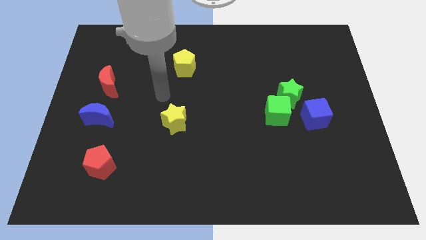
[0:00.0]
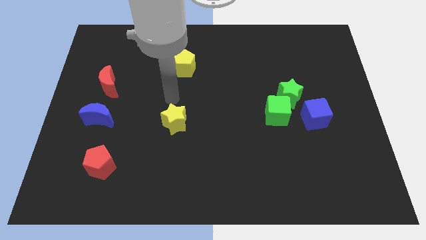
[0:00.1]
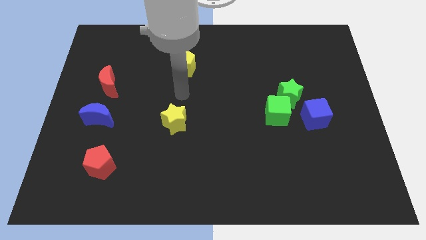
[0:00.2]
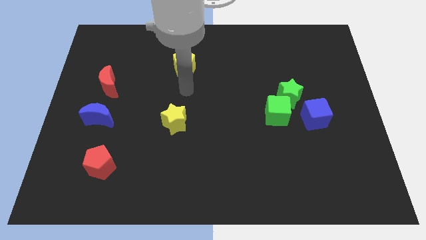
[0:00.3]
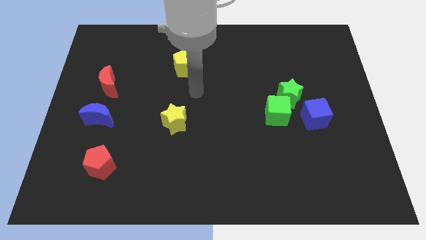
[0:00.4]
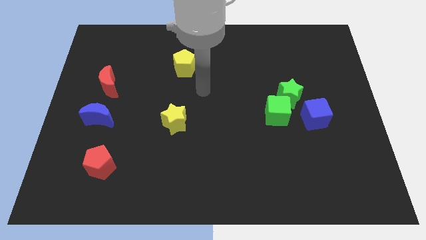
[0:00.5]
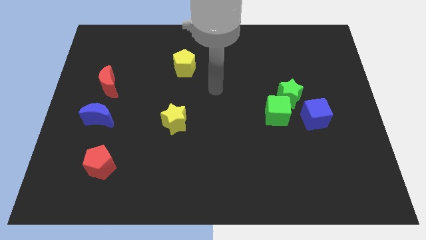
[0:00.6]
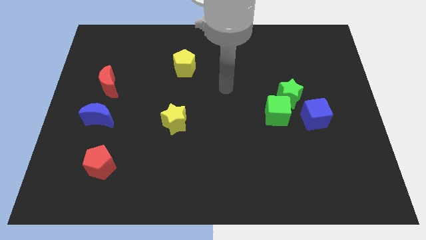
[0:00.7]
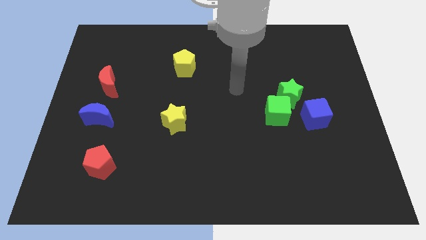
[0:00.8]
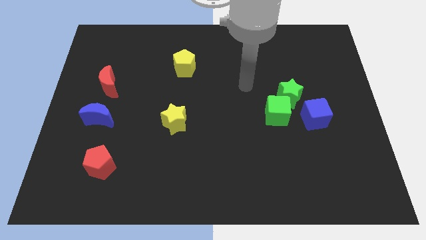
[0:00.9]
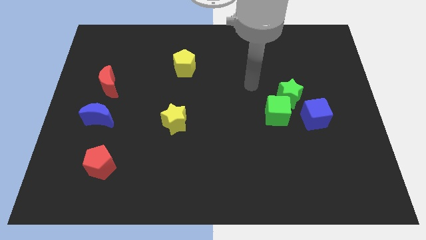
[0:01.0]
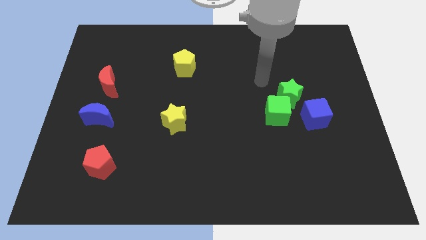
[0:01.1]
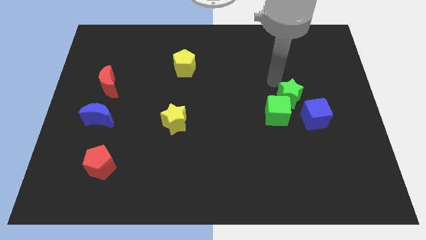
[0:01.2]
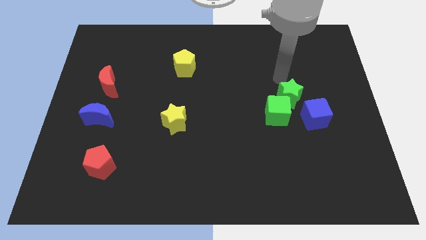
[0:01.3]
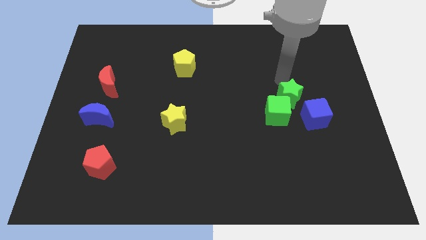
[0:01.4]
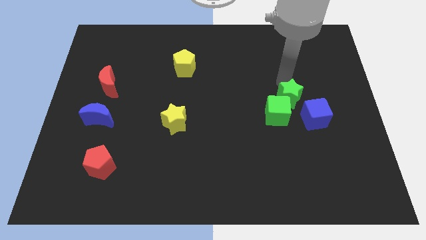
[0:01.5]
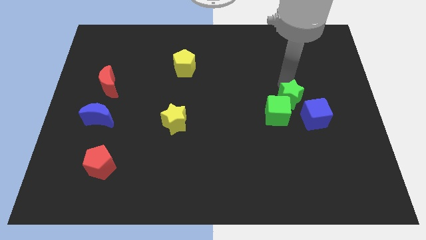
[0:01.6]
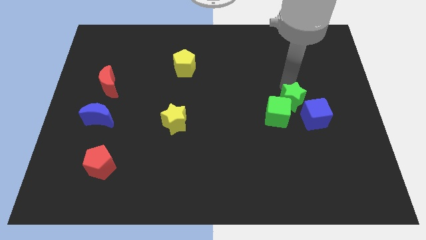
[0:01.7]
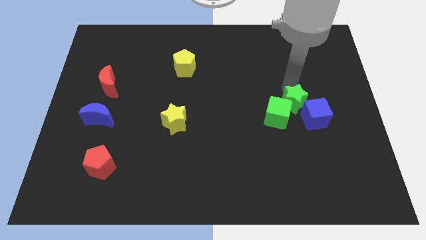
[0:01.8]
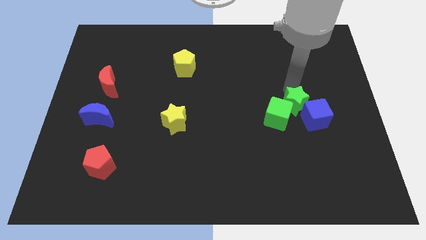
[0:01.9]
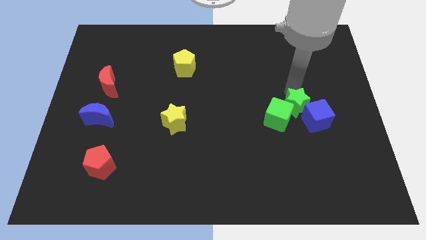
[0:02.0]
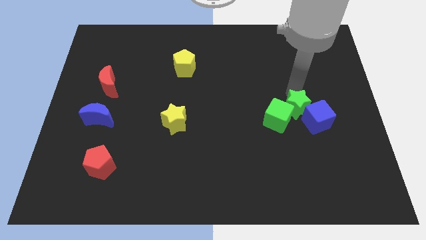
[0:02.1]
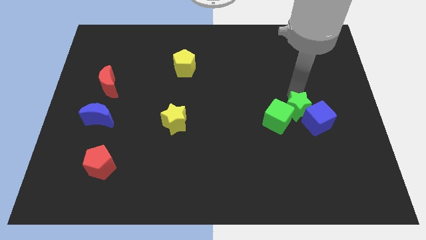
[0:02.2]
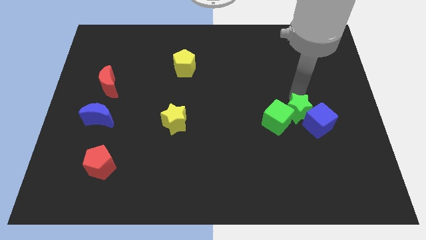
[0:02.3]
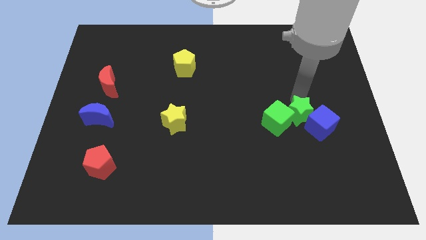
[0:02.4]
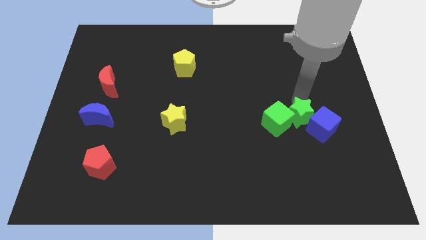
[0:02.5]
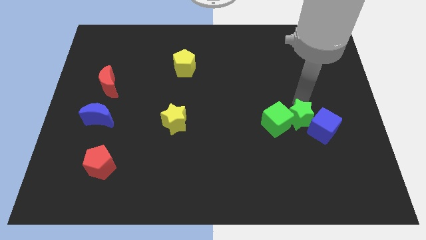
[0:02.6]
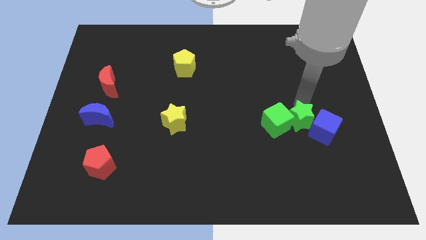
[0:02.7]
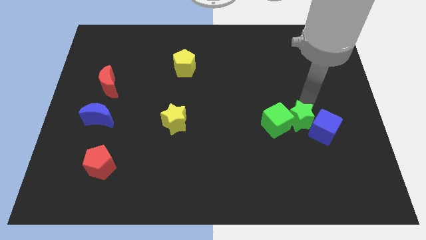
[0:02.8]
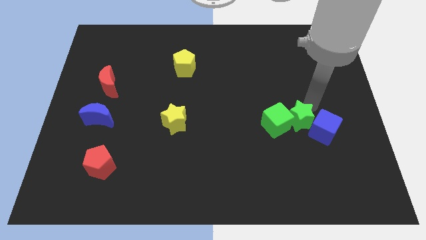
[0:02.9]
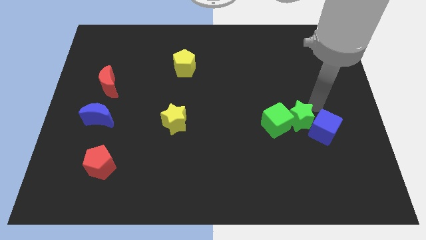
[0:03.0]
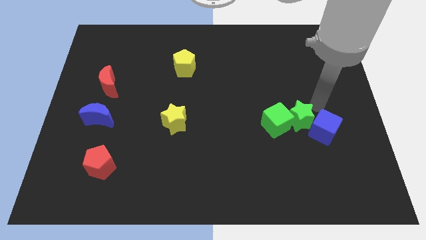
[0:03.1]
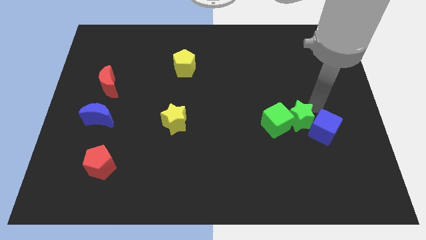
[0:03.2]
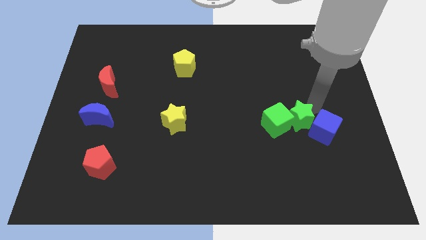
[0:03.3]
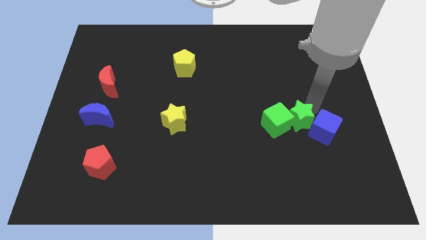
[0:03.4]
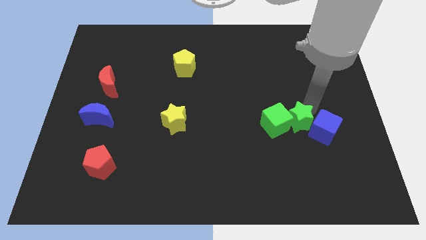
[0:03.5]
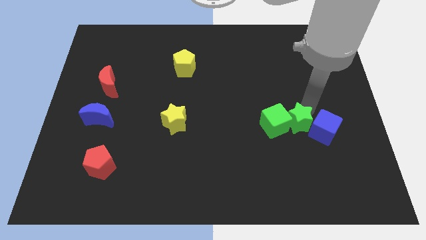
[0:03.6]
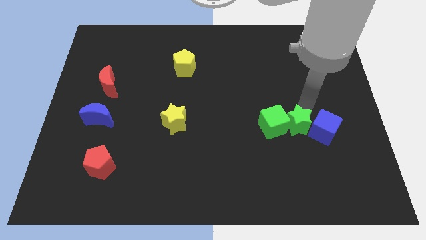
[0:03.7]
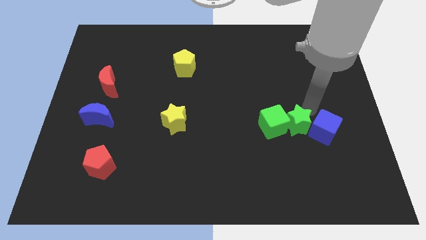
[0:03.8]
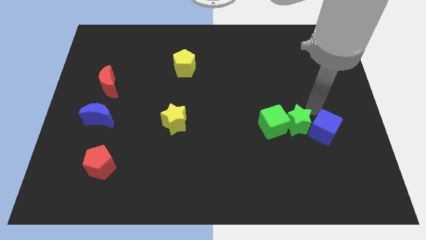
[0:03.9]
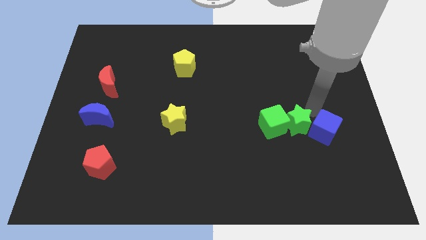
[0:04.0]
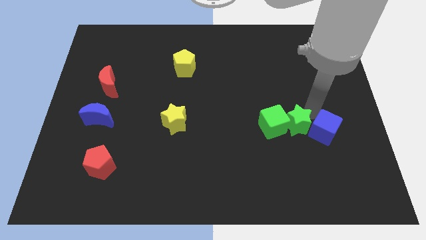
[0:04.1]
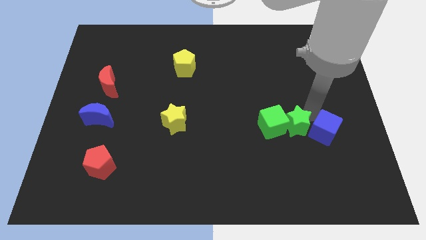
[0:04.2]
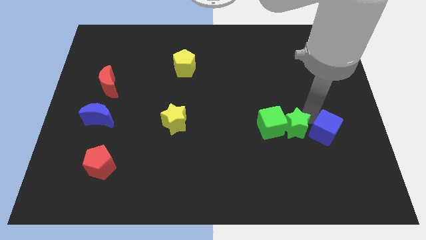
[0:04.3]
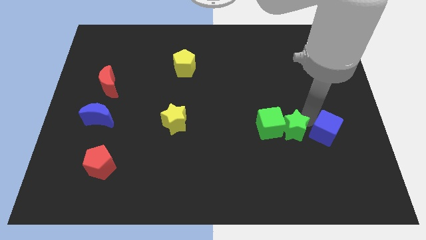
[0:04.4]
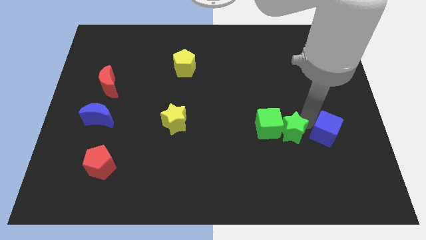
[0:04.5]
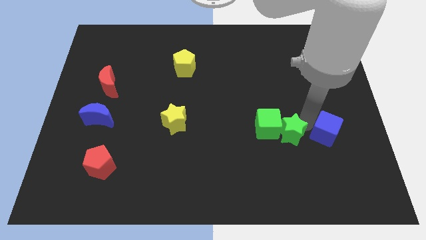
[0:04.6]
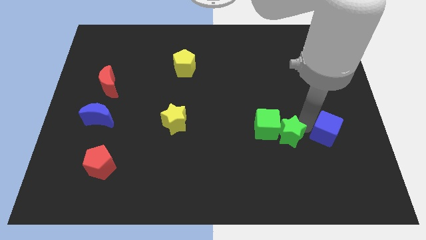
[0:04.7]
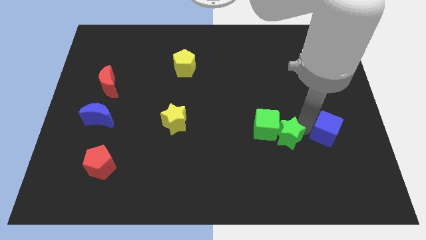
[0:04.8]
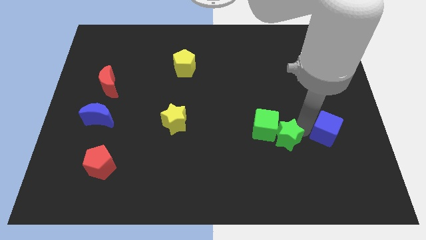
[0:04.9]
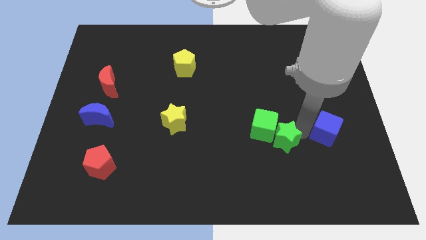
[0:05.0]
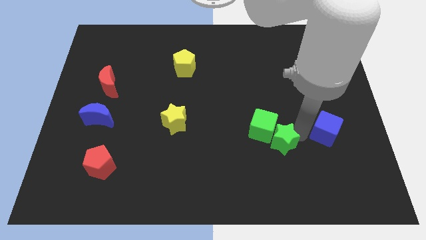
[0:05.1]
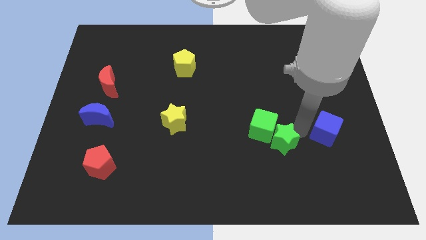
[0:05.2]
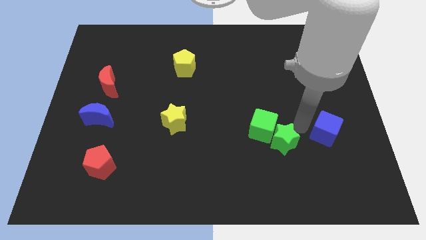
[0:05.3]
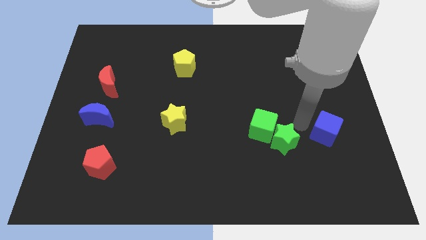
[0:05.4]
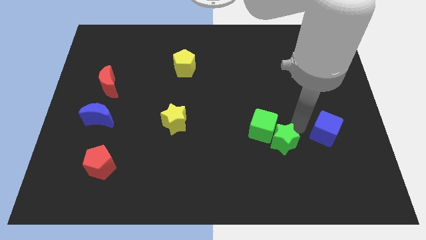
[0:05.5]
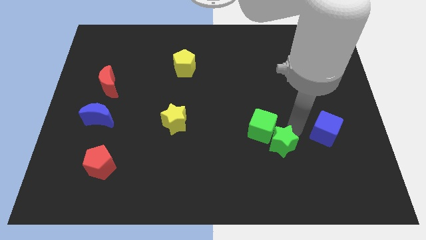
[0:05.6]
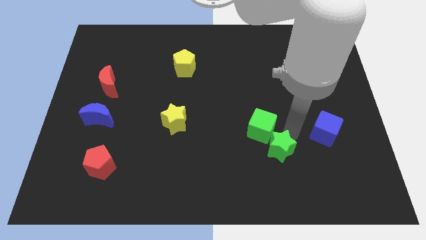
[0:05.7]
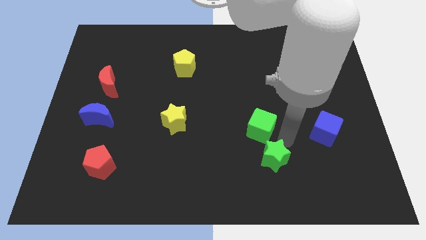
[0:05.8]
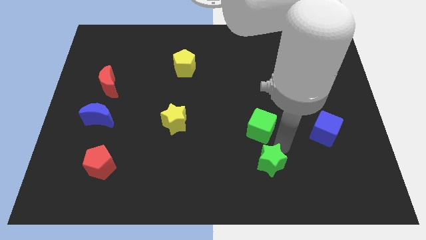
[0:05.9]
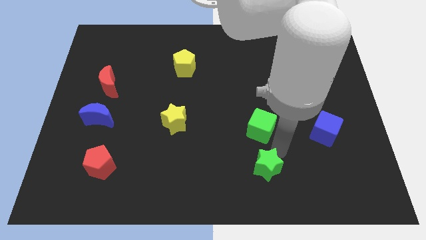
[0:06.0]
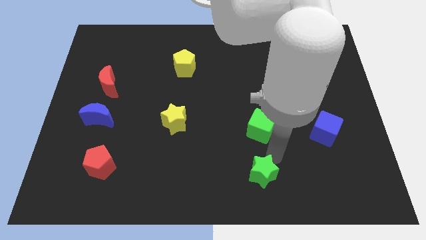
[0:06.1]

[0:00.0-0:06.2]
push the green star to the bottom side

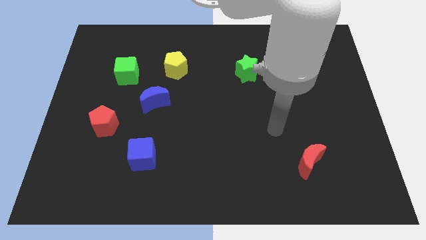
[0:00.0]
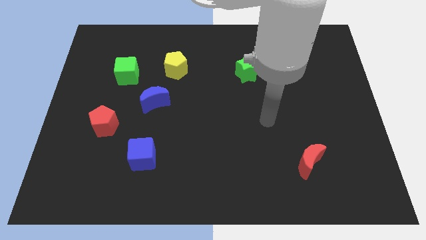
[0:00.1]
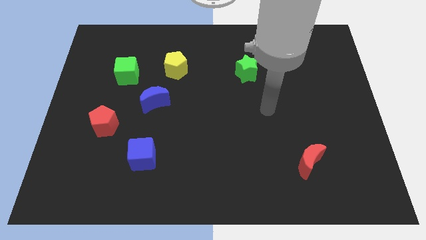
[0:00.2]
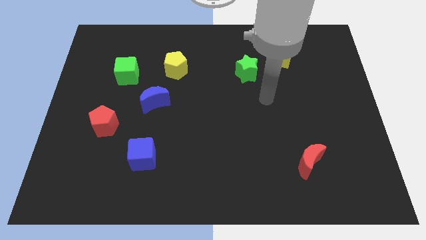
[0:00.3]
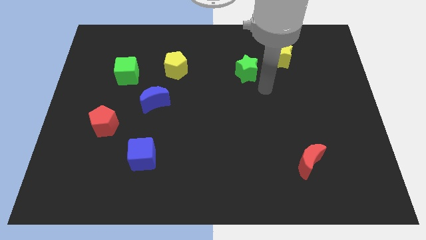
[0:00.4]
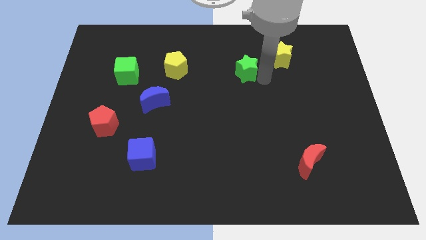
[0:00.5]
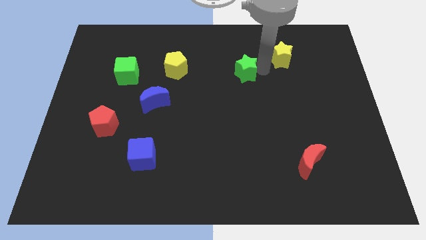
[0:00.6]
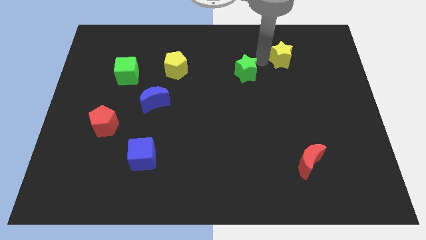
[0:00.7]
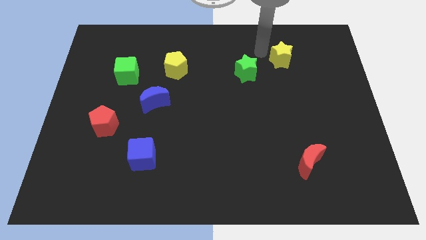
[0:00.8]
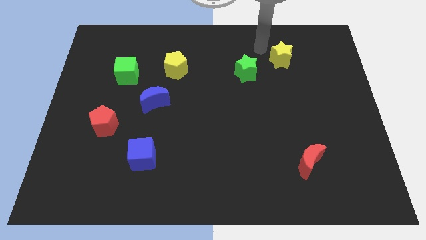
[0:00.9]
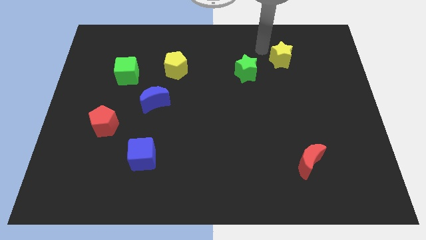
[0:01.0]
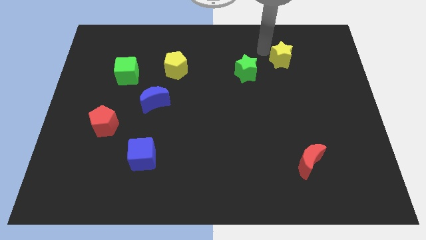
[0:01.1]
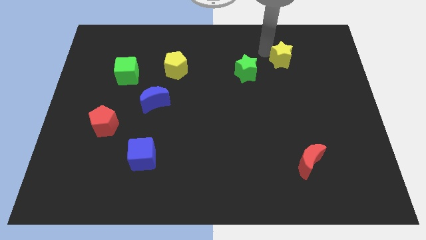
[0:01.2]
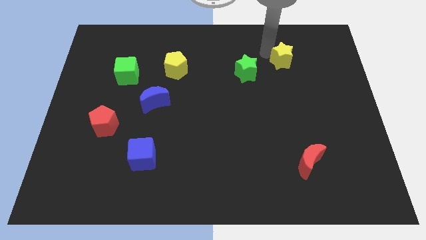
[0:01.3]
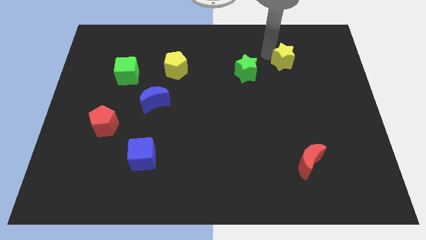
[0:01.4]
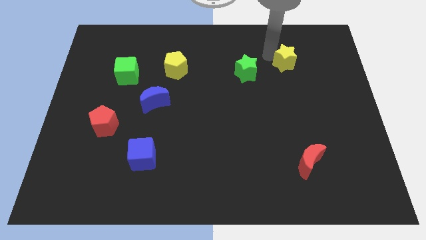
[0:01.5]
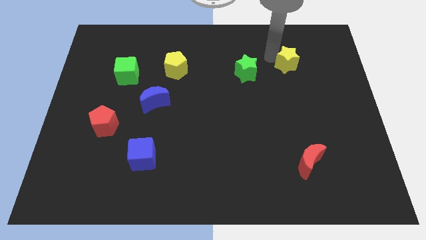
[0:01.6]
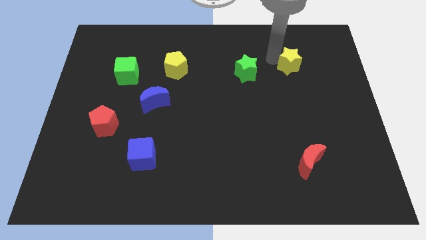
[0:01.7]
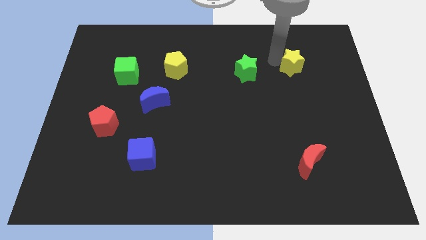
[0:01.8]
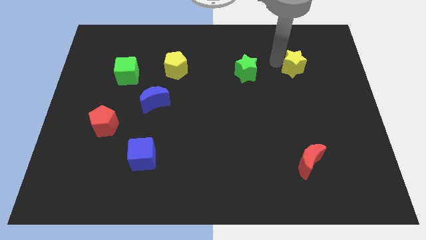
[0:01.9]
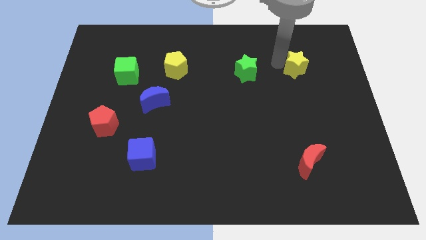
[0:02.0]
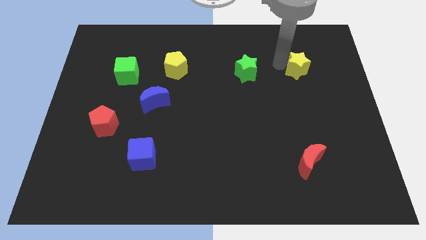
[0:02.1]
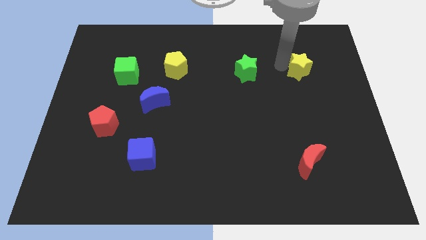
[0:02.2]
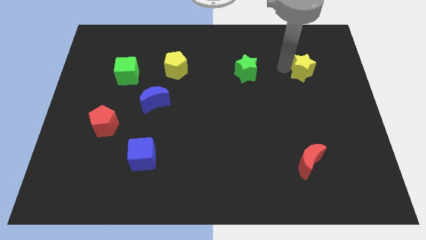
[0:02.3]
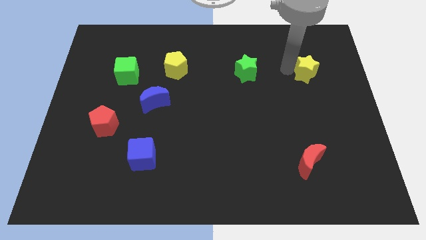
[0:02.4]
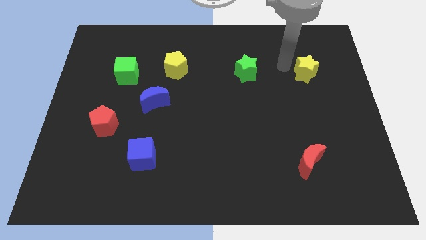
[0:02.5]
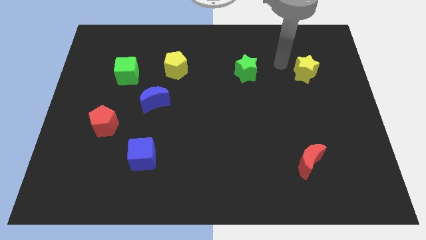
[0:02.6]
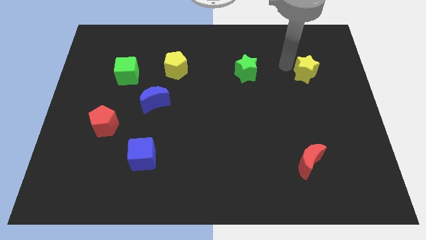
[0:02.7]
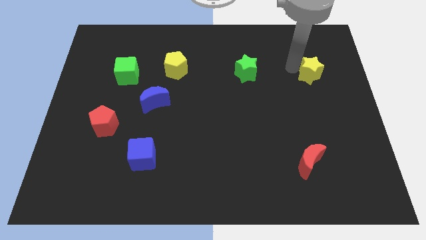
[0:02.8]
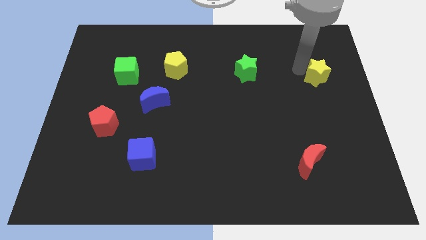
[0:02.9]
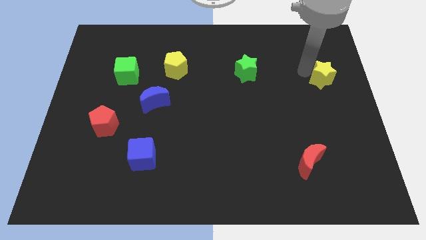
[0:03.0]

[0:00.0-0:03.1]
push the yellow star to the right side of the board
